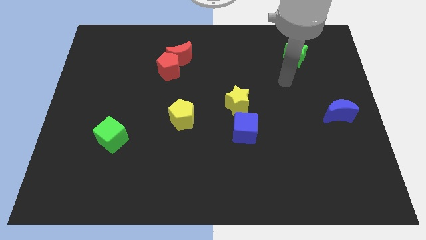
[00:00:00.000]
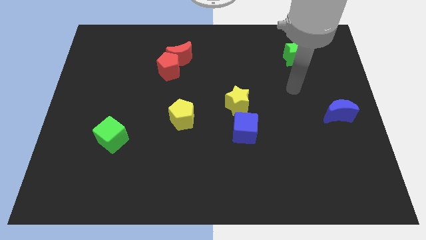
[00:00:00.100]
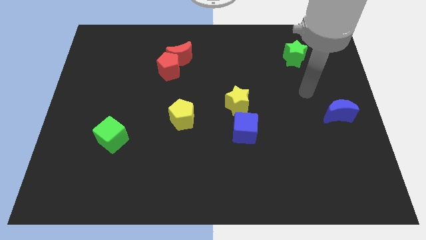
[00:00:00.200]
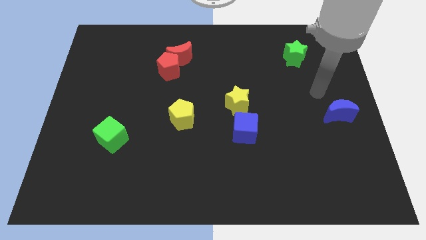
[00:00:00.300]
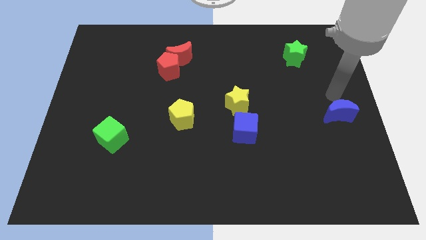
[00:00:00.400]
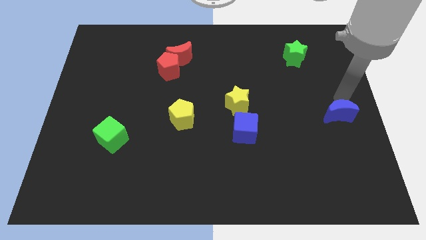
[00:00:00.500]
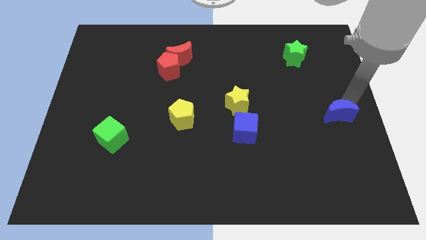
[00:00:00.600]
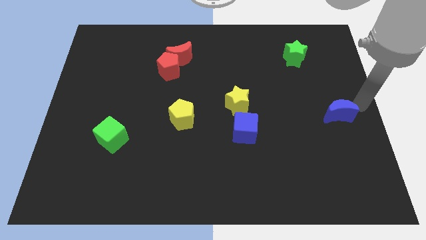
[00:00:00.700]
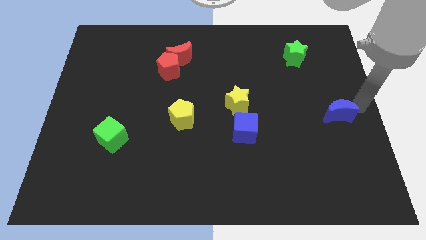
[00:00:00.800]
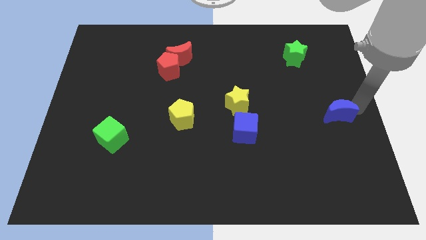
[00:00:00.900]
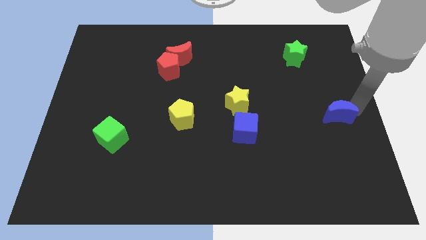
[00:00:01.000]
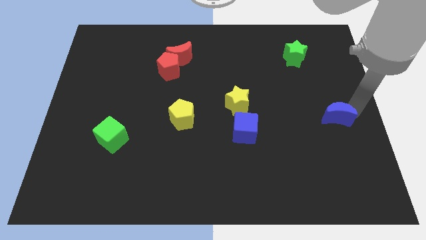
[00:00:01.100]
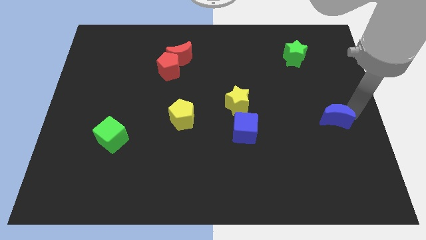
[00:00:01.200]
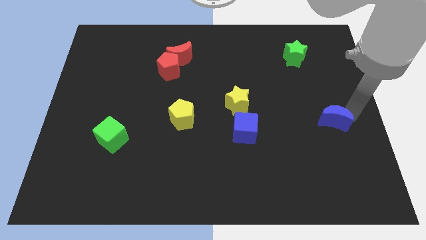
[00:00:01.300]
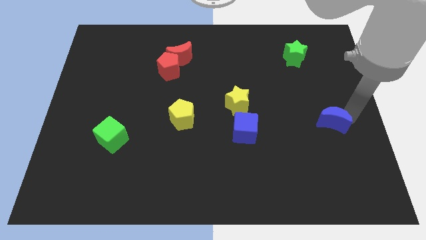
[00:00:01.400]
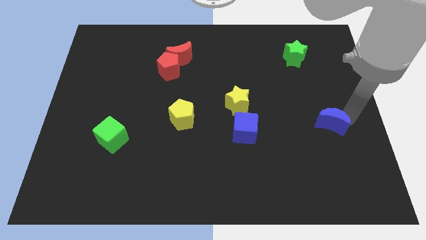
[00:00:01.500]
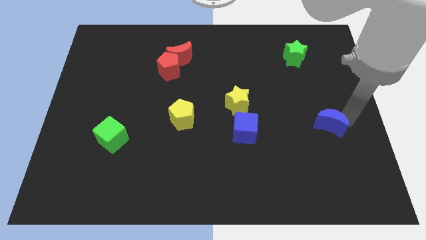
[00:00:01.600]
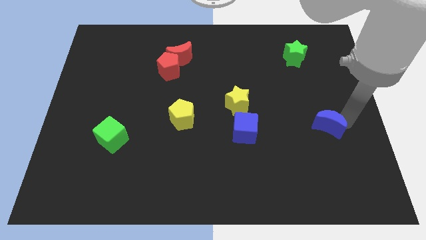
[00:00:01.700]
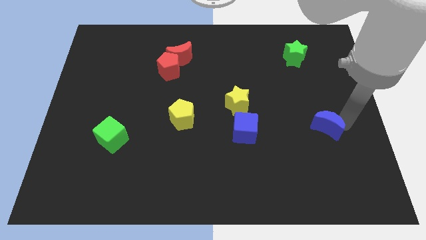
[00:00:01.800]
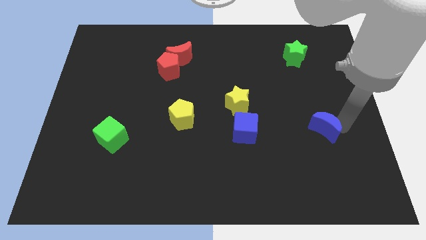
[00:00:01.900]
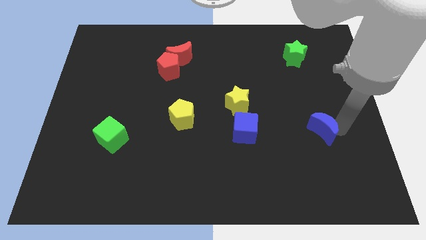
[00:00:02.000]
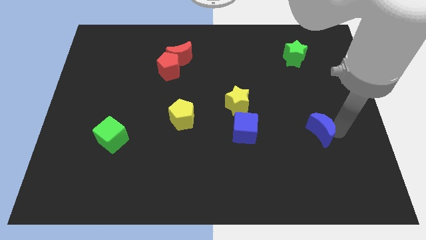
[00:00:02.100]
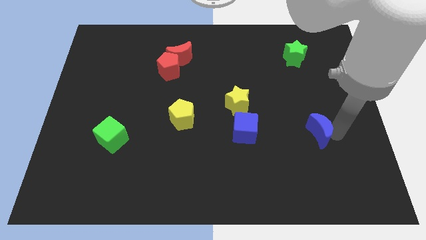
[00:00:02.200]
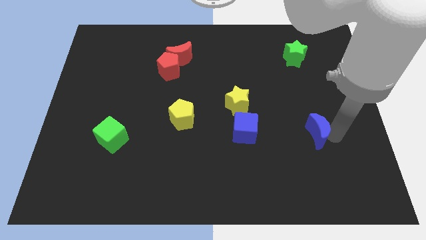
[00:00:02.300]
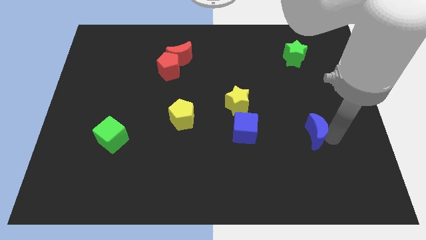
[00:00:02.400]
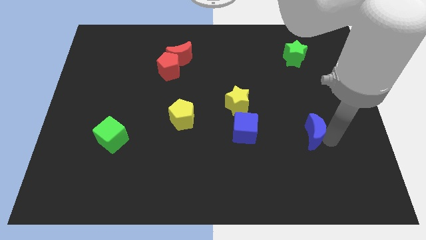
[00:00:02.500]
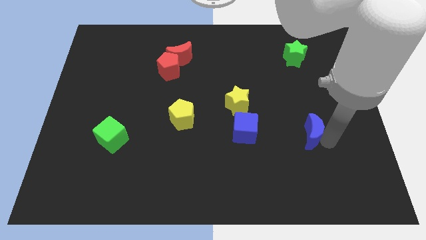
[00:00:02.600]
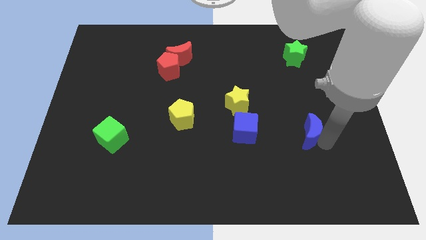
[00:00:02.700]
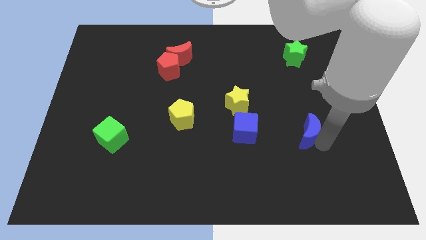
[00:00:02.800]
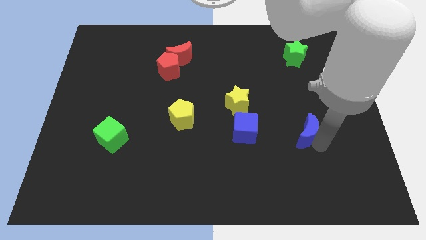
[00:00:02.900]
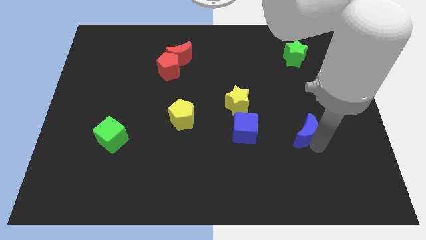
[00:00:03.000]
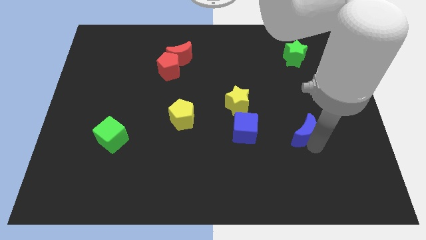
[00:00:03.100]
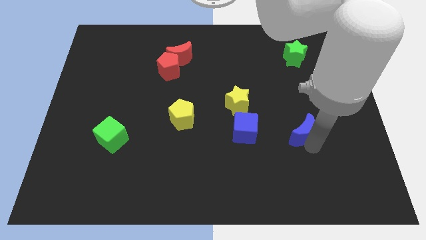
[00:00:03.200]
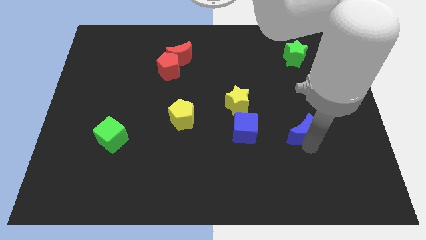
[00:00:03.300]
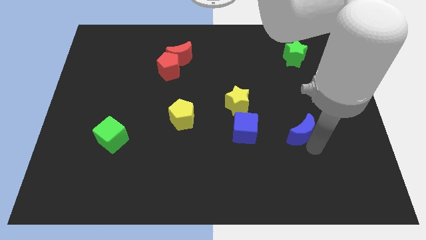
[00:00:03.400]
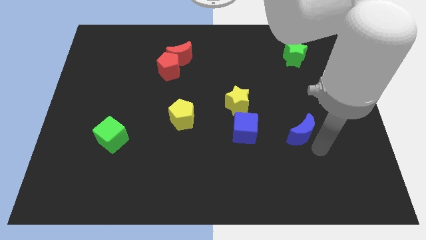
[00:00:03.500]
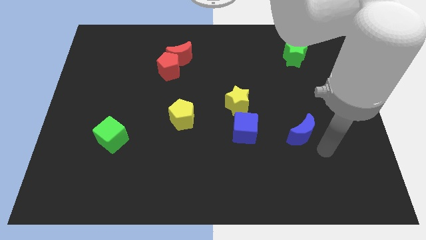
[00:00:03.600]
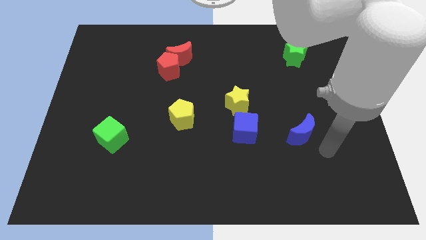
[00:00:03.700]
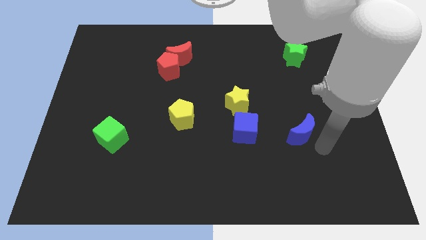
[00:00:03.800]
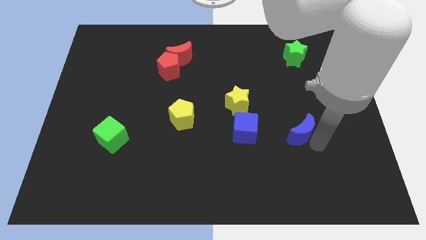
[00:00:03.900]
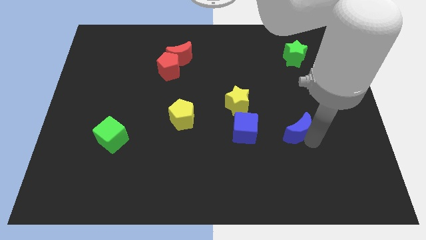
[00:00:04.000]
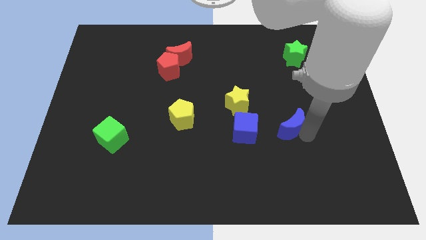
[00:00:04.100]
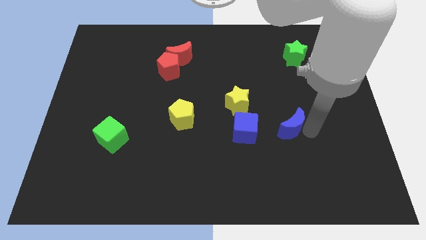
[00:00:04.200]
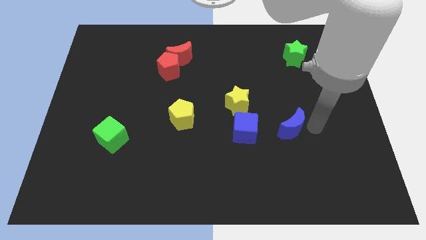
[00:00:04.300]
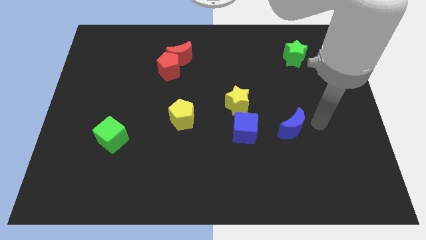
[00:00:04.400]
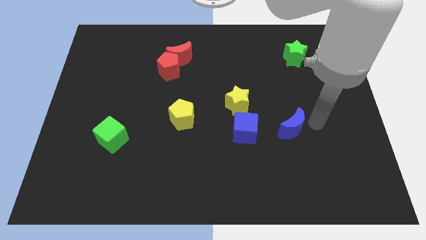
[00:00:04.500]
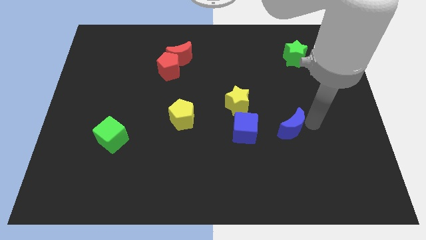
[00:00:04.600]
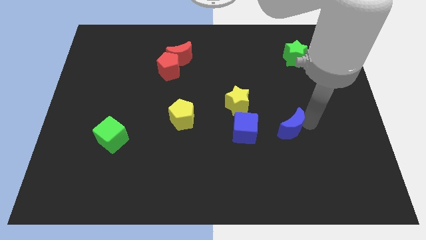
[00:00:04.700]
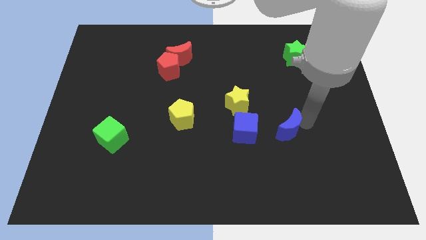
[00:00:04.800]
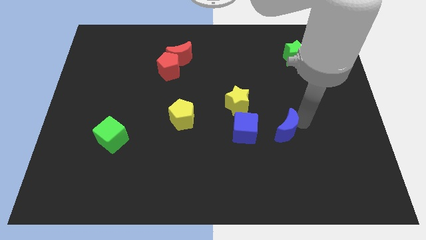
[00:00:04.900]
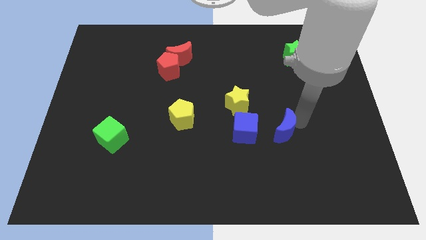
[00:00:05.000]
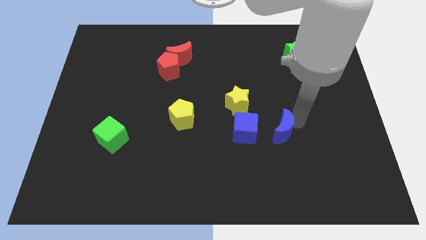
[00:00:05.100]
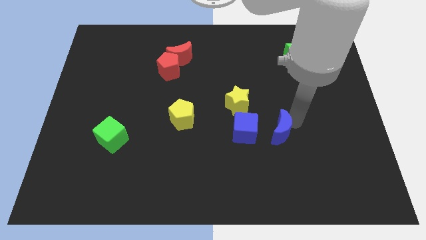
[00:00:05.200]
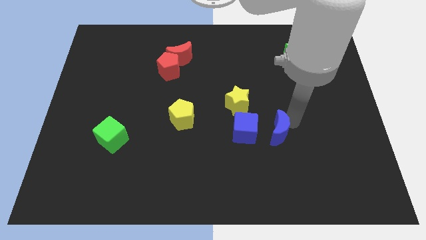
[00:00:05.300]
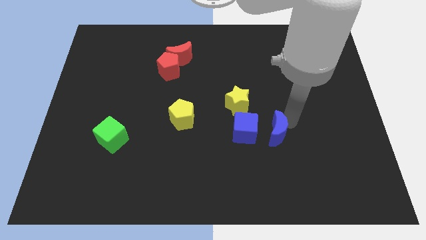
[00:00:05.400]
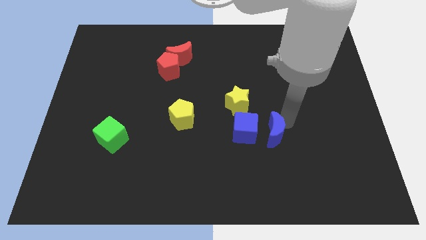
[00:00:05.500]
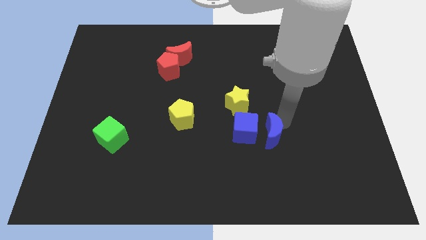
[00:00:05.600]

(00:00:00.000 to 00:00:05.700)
put the blue moon close to the blue cube
